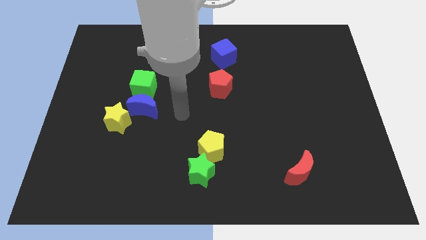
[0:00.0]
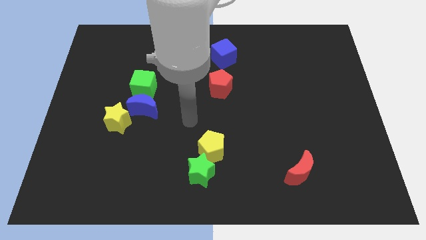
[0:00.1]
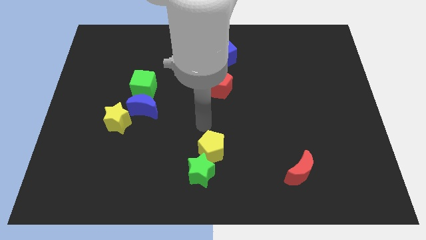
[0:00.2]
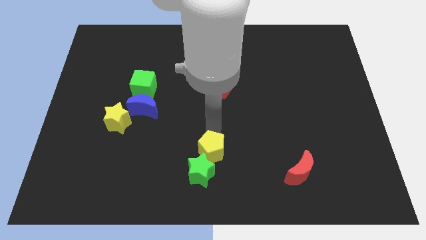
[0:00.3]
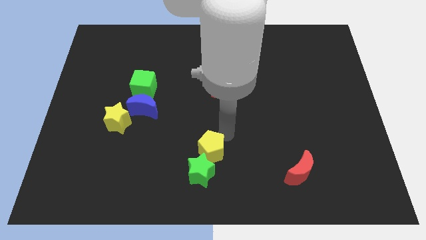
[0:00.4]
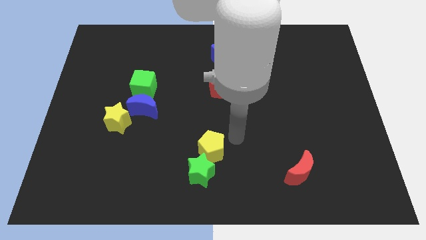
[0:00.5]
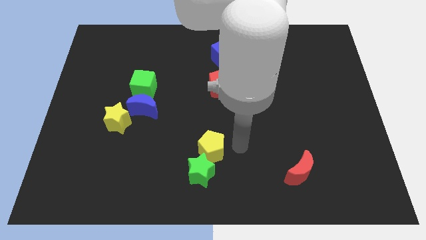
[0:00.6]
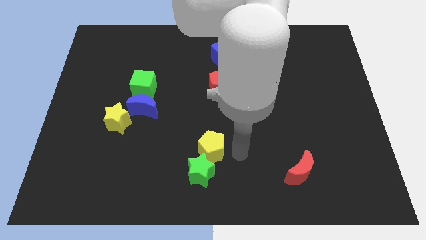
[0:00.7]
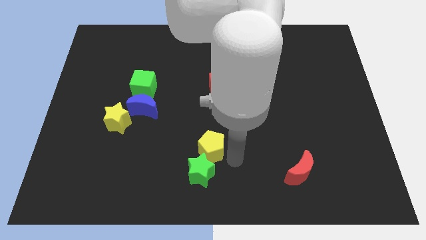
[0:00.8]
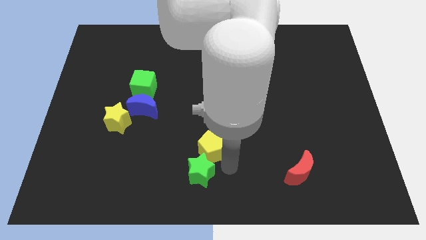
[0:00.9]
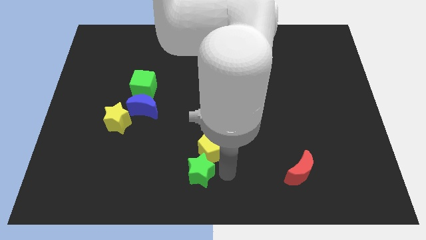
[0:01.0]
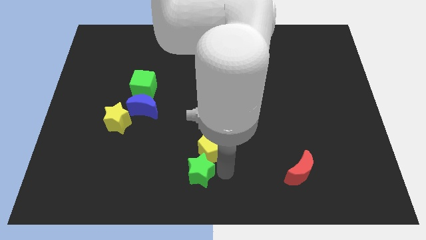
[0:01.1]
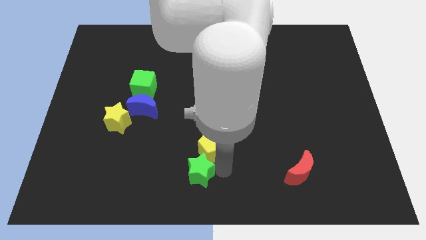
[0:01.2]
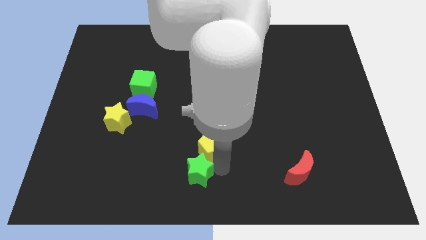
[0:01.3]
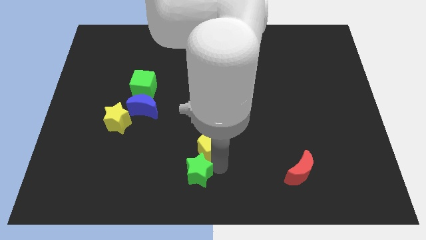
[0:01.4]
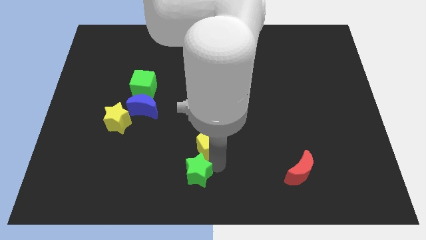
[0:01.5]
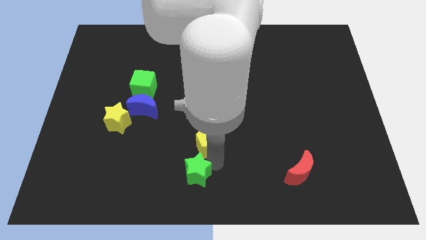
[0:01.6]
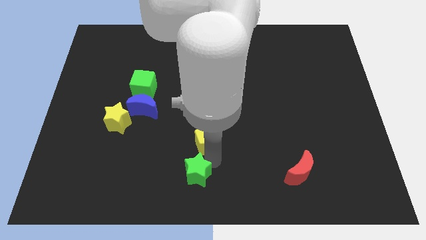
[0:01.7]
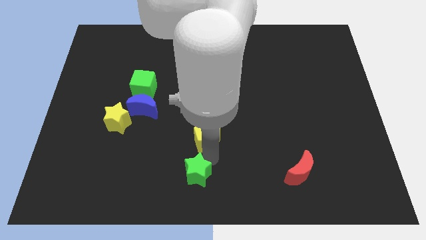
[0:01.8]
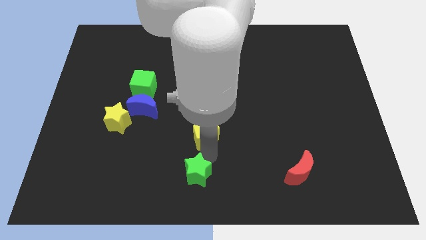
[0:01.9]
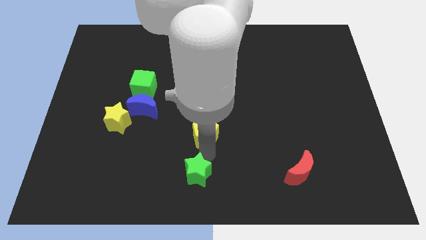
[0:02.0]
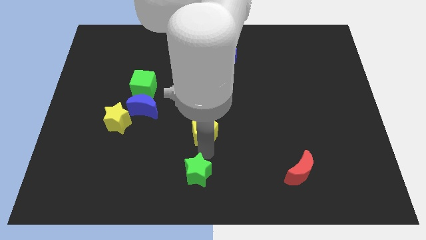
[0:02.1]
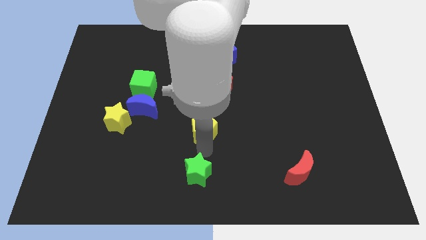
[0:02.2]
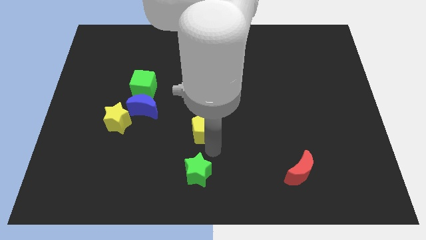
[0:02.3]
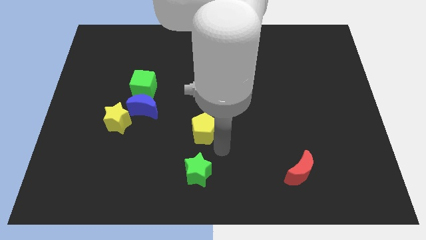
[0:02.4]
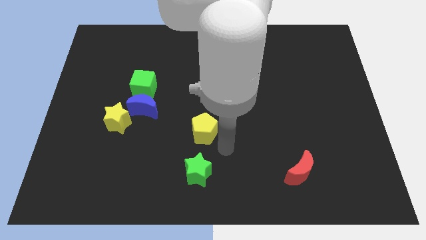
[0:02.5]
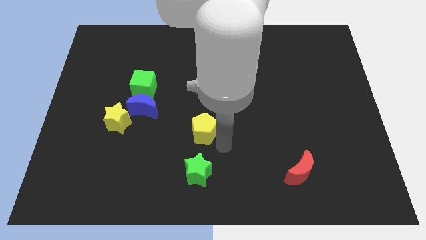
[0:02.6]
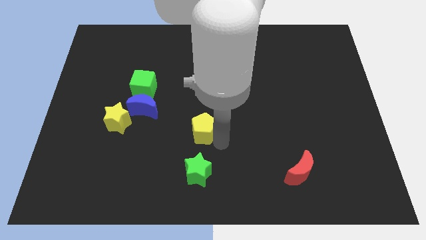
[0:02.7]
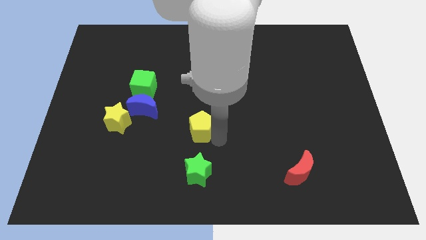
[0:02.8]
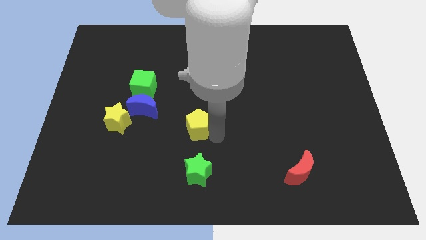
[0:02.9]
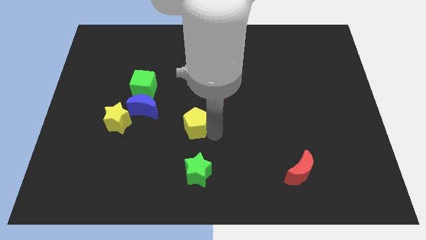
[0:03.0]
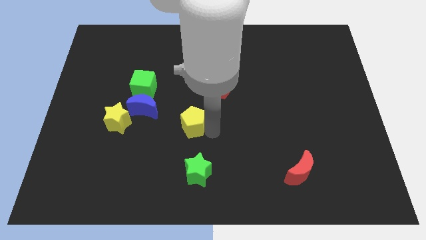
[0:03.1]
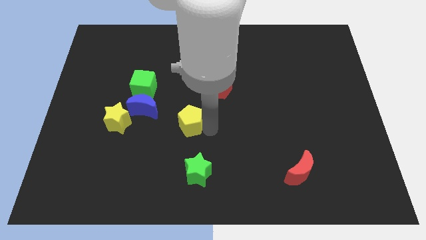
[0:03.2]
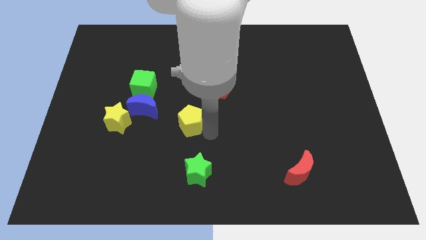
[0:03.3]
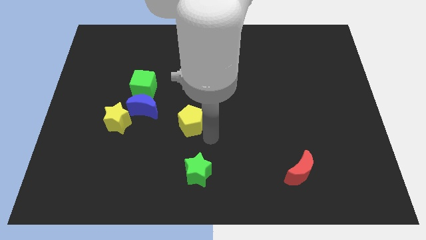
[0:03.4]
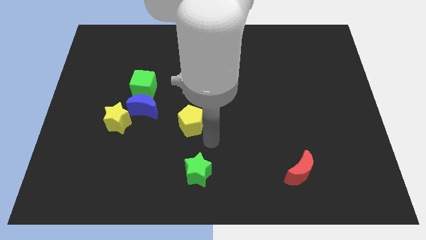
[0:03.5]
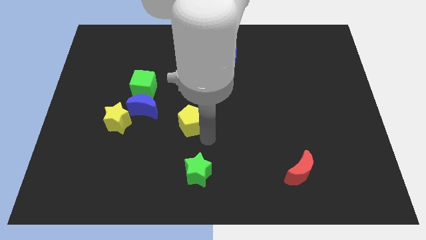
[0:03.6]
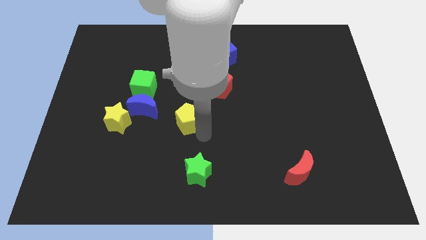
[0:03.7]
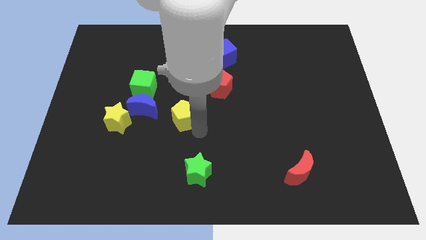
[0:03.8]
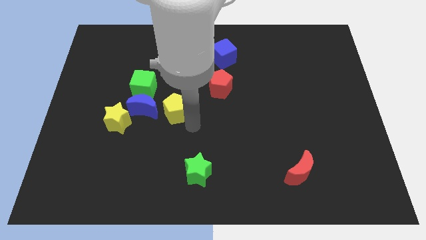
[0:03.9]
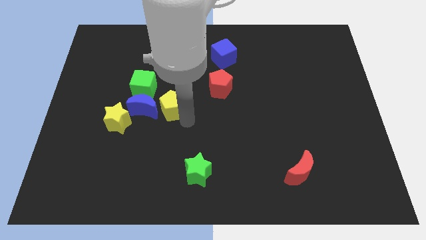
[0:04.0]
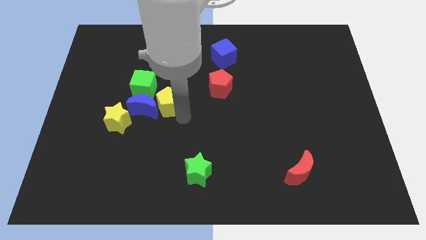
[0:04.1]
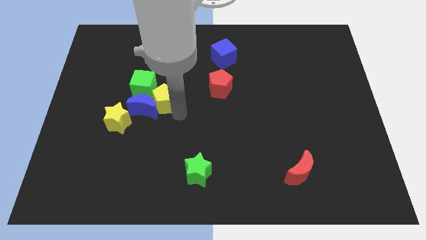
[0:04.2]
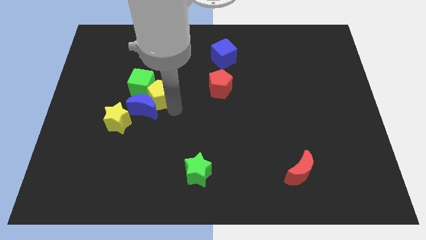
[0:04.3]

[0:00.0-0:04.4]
put the yellow pentagon close to the green cube

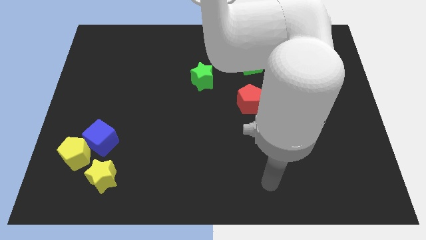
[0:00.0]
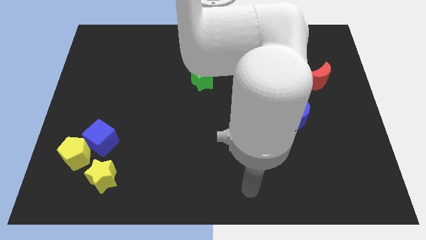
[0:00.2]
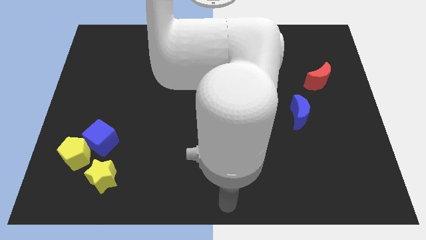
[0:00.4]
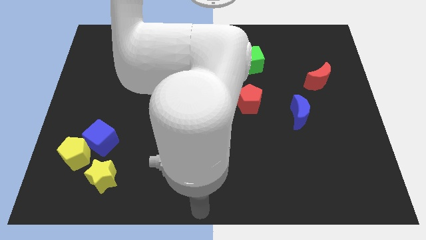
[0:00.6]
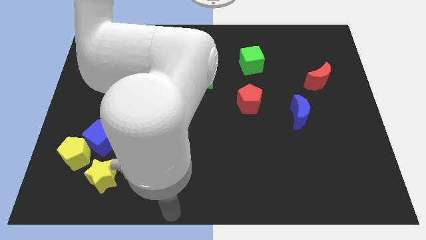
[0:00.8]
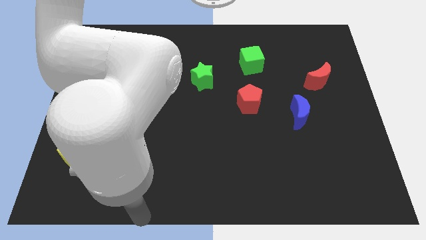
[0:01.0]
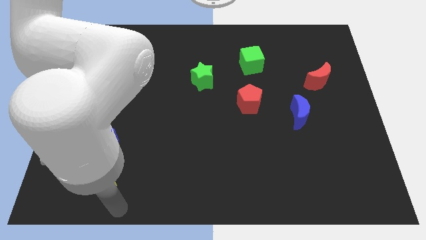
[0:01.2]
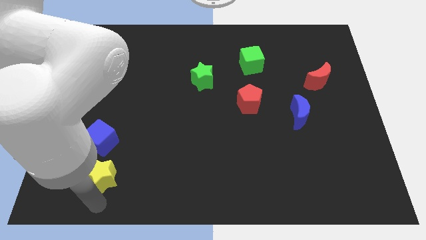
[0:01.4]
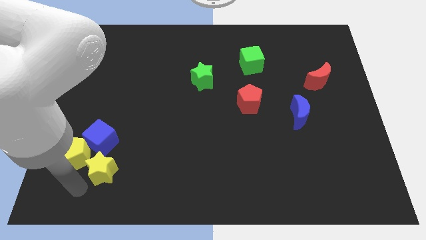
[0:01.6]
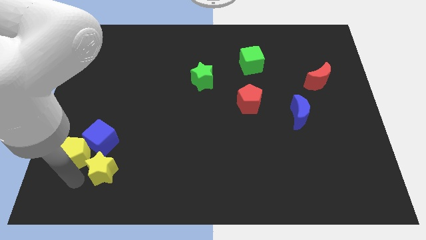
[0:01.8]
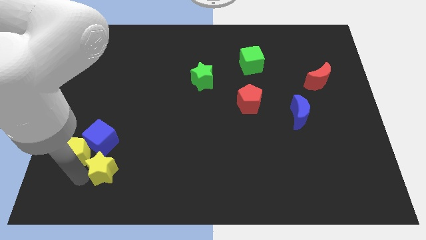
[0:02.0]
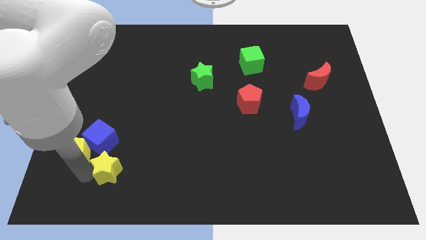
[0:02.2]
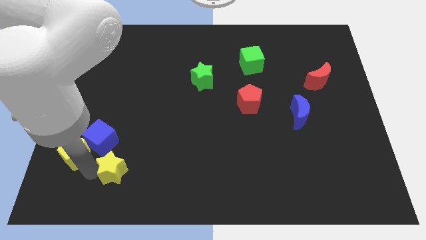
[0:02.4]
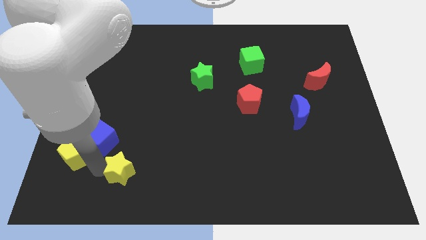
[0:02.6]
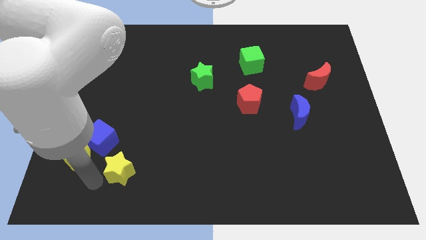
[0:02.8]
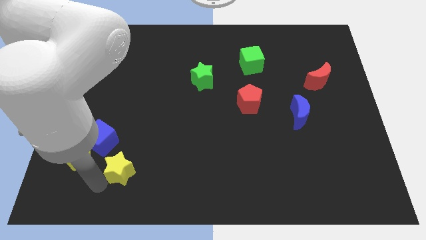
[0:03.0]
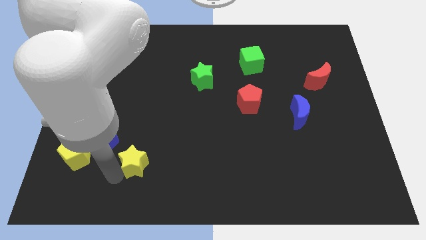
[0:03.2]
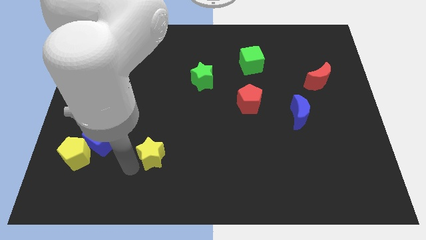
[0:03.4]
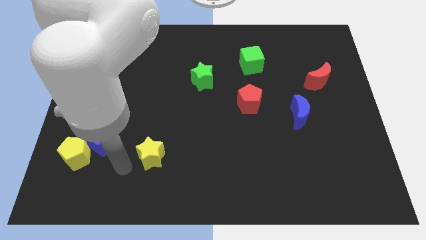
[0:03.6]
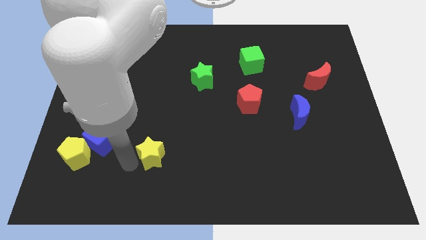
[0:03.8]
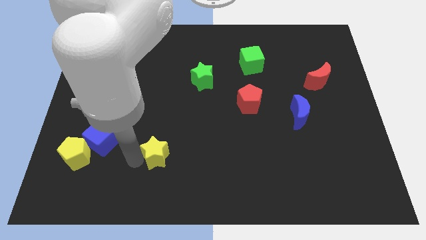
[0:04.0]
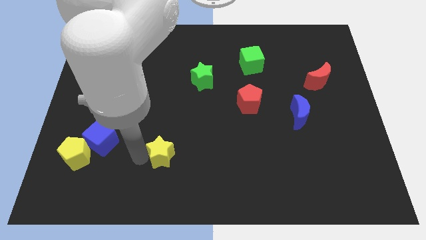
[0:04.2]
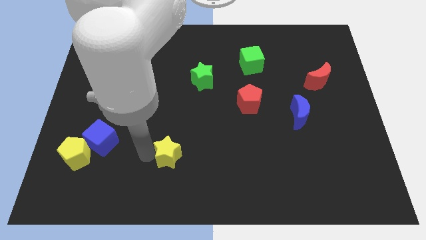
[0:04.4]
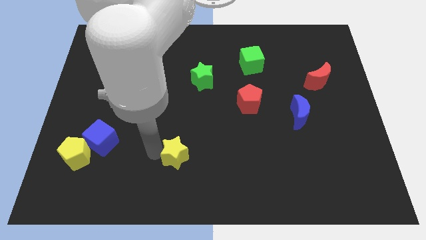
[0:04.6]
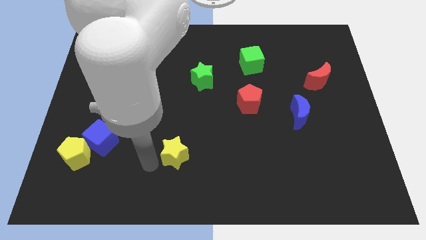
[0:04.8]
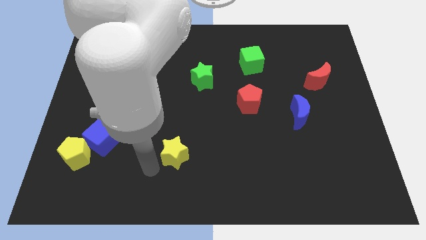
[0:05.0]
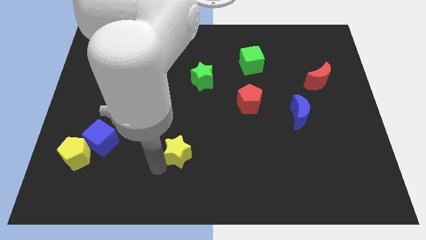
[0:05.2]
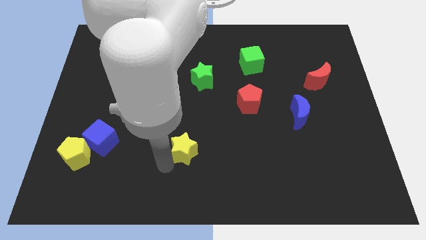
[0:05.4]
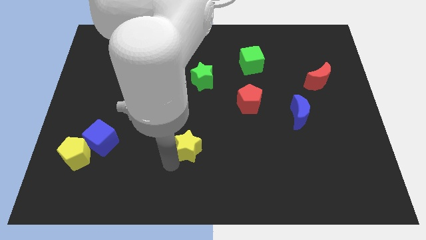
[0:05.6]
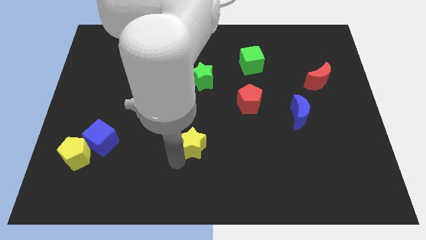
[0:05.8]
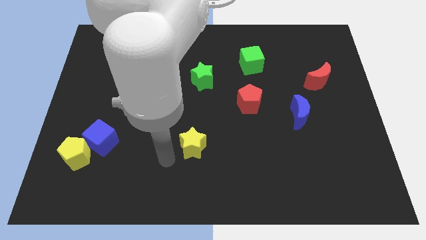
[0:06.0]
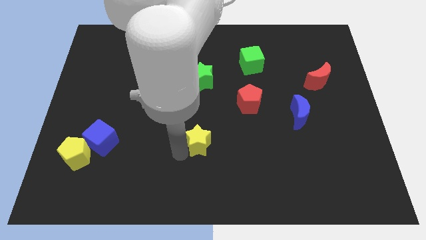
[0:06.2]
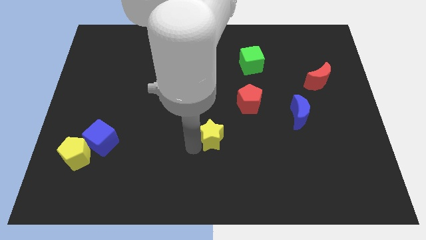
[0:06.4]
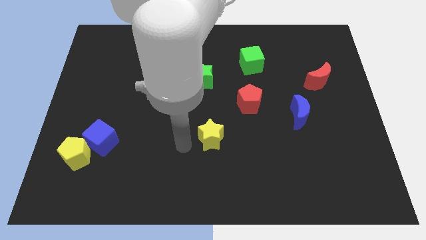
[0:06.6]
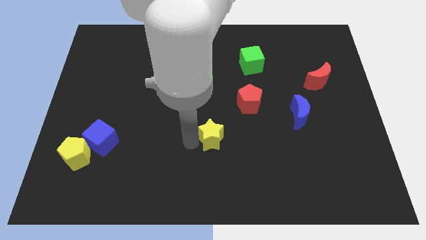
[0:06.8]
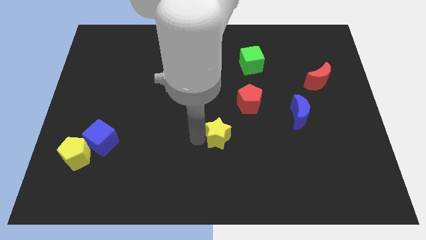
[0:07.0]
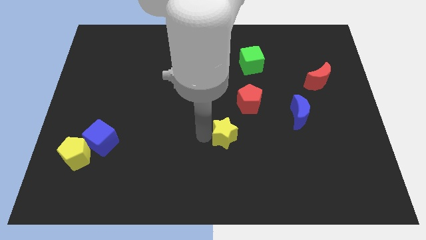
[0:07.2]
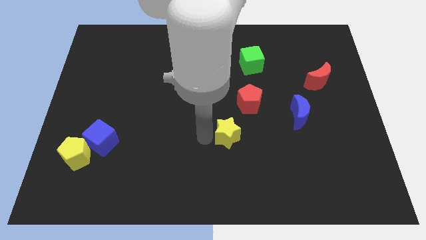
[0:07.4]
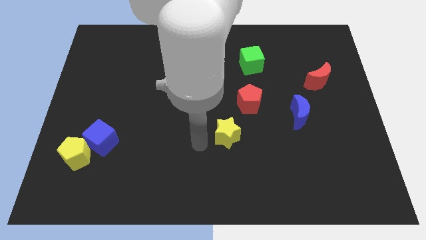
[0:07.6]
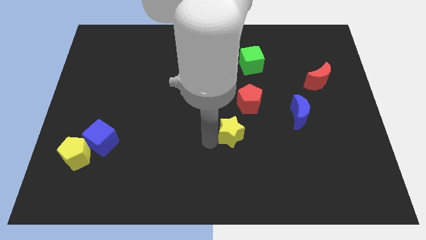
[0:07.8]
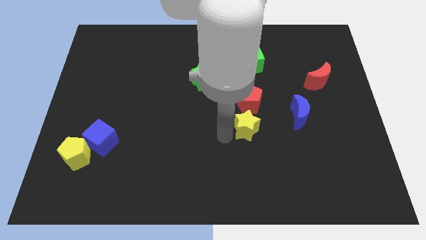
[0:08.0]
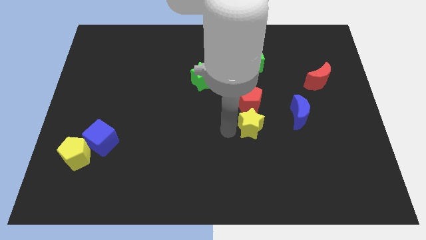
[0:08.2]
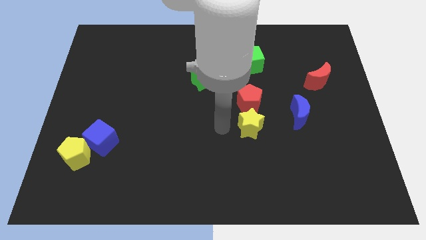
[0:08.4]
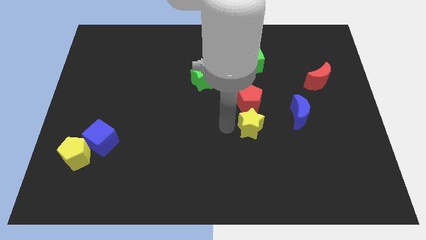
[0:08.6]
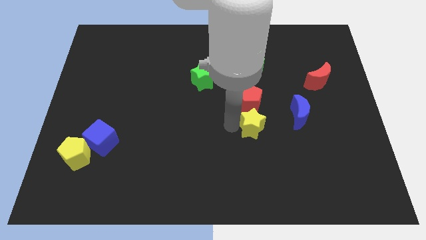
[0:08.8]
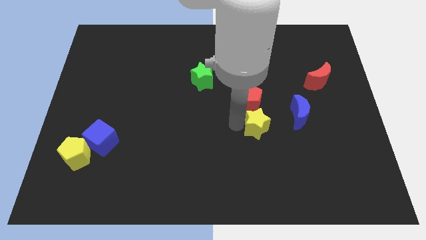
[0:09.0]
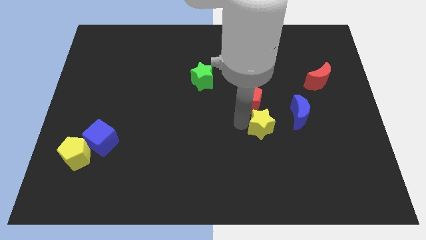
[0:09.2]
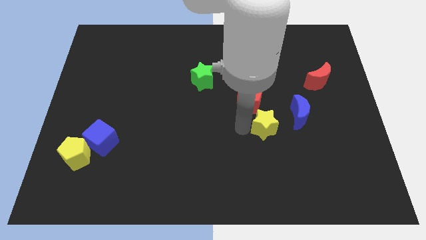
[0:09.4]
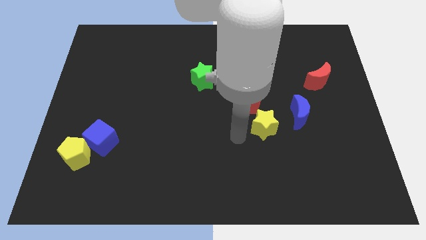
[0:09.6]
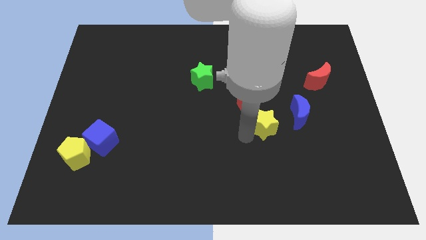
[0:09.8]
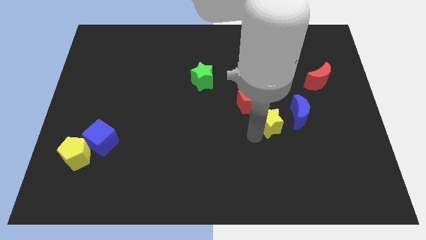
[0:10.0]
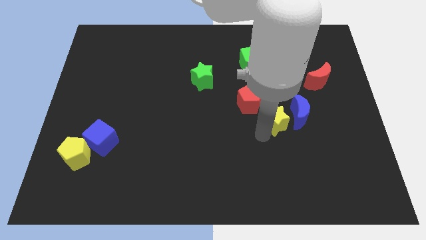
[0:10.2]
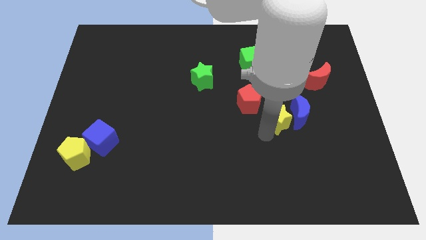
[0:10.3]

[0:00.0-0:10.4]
push the yellow star towards the blue moon
